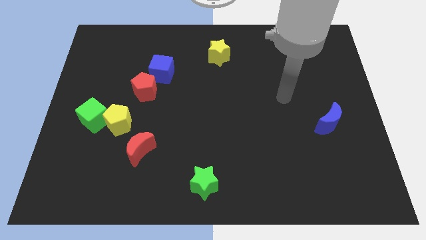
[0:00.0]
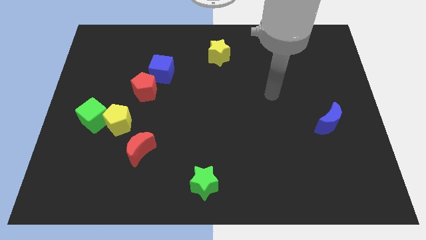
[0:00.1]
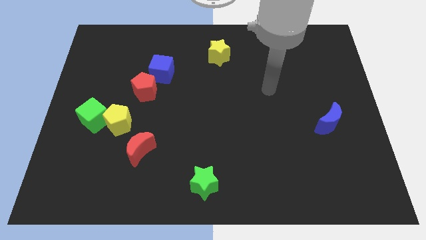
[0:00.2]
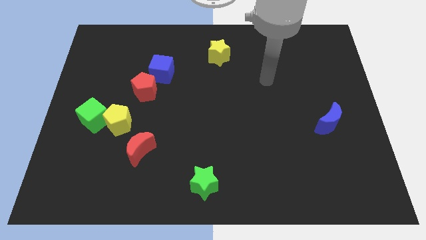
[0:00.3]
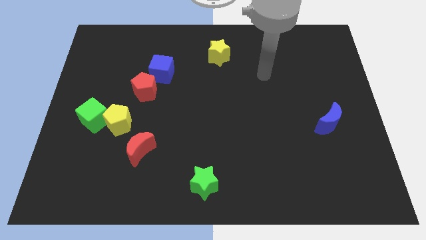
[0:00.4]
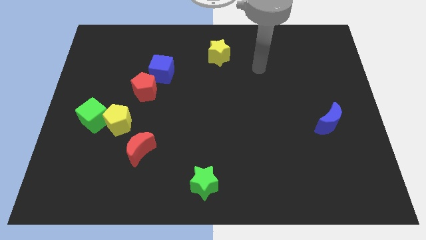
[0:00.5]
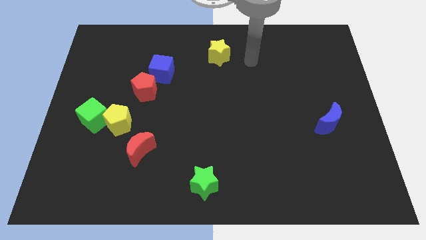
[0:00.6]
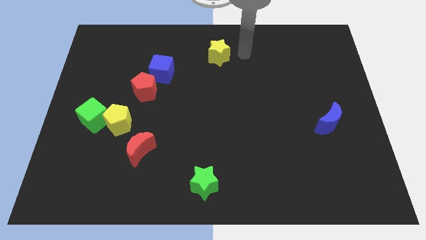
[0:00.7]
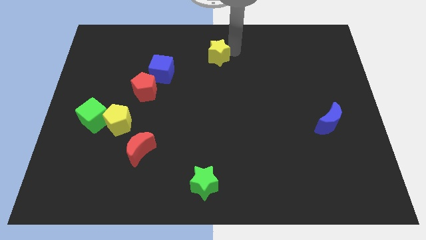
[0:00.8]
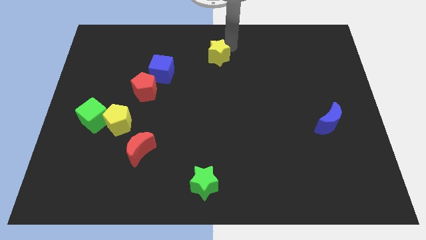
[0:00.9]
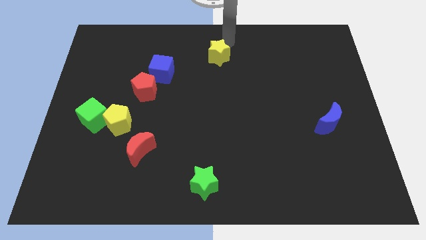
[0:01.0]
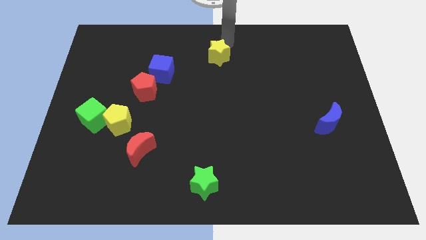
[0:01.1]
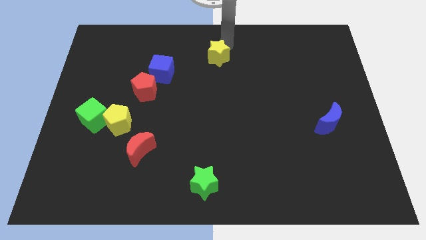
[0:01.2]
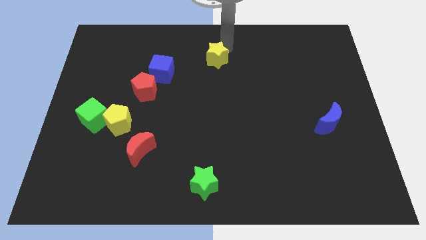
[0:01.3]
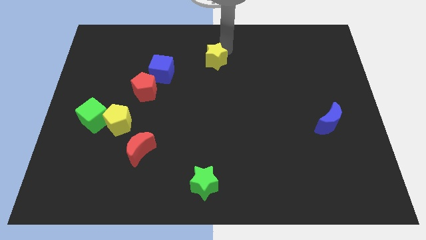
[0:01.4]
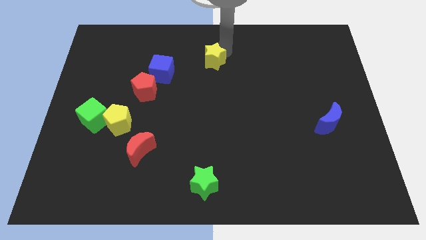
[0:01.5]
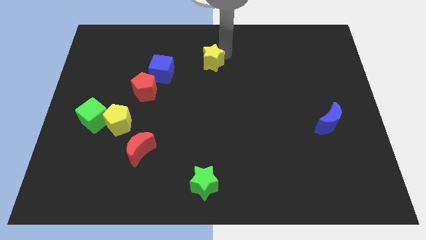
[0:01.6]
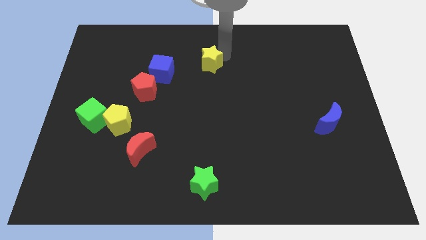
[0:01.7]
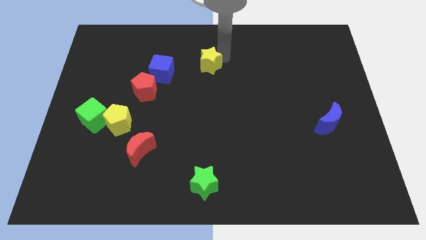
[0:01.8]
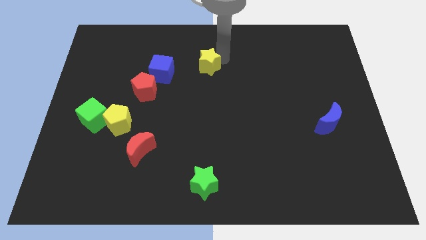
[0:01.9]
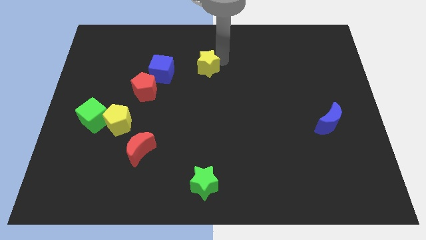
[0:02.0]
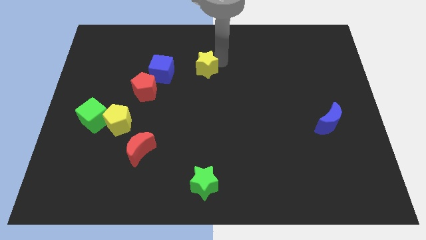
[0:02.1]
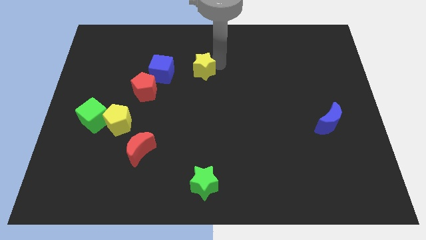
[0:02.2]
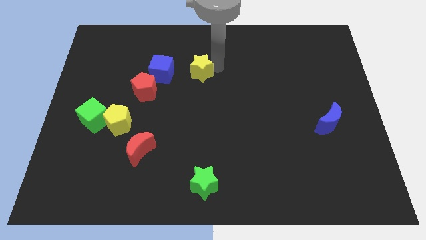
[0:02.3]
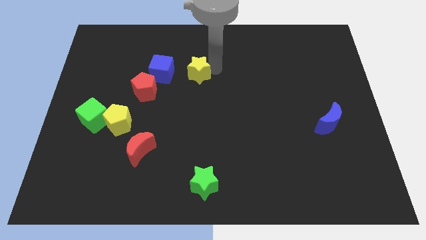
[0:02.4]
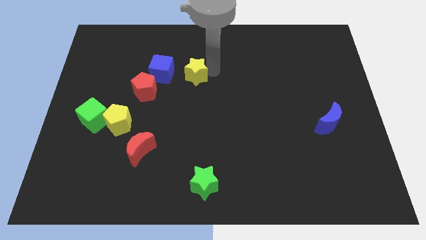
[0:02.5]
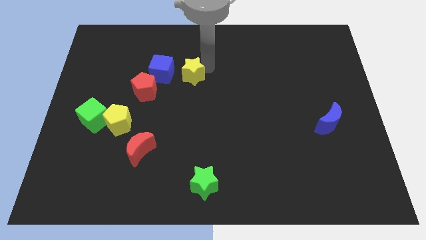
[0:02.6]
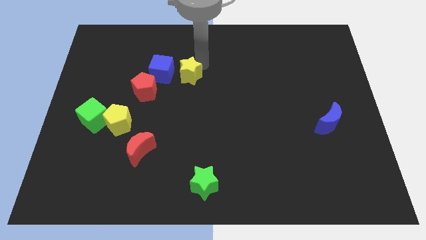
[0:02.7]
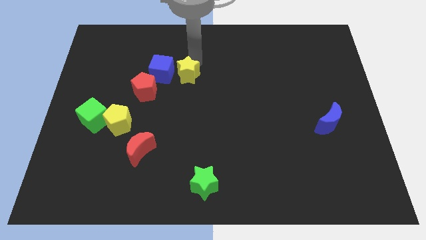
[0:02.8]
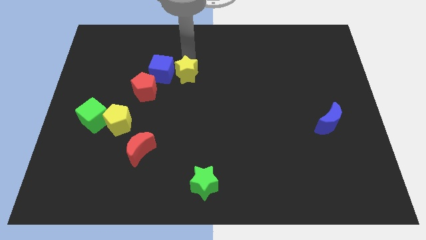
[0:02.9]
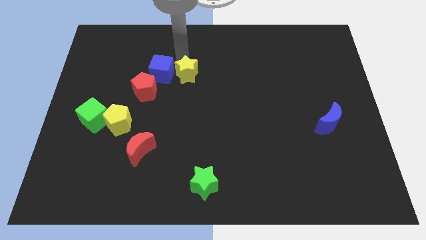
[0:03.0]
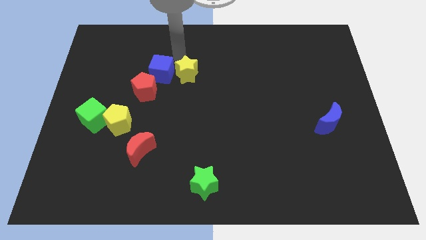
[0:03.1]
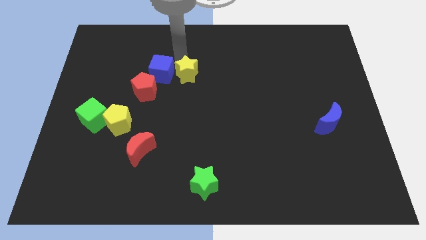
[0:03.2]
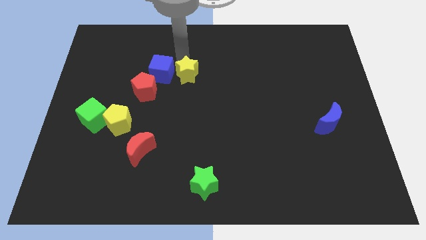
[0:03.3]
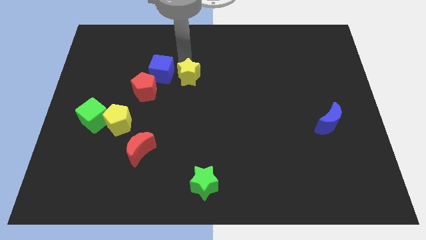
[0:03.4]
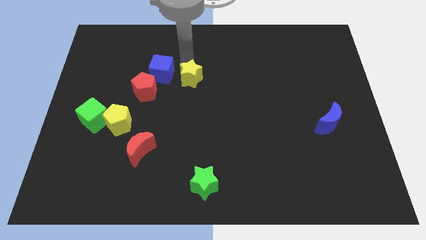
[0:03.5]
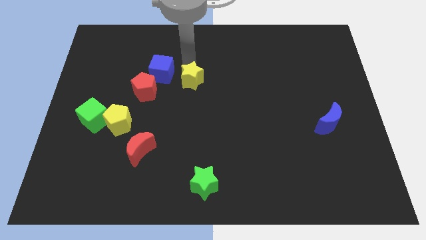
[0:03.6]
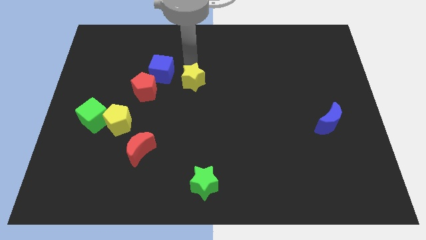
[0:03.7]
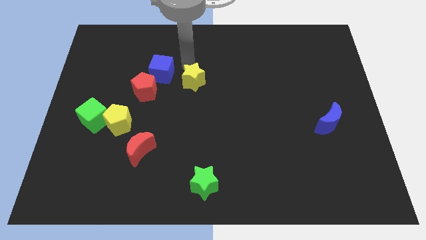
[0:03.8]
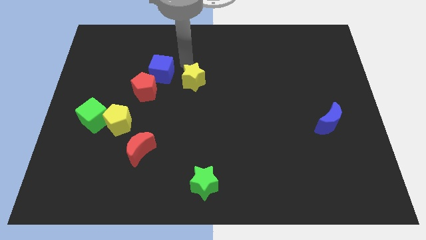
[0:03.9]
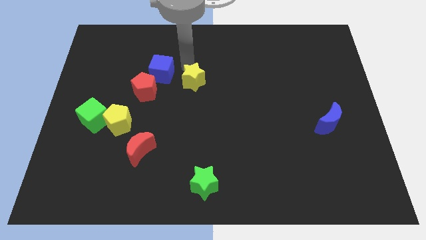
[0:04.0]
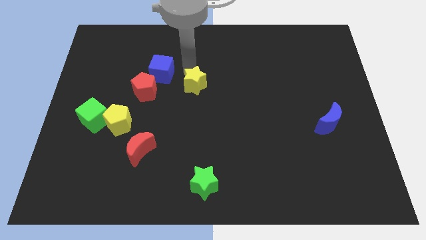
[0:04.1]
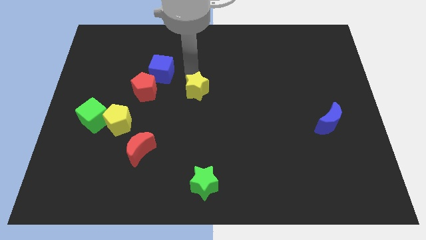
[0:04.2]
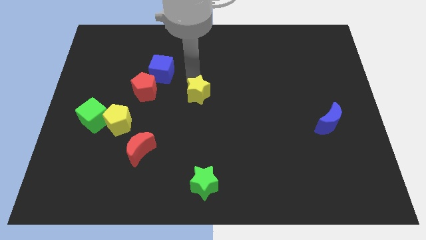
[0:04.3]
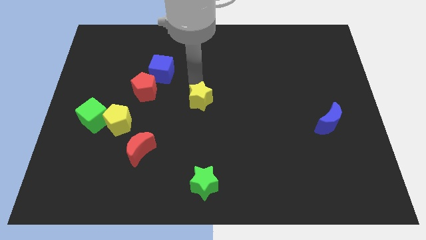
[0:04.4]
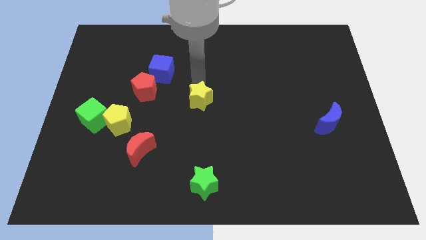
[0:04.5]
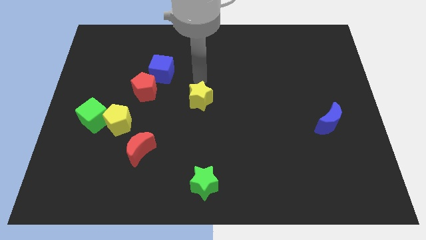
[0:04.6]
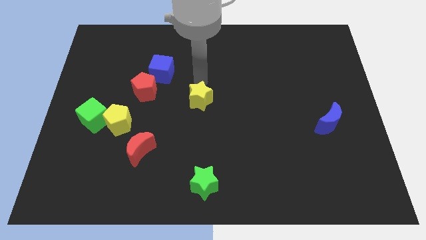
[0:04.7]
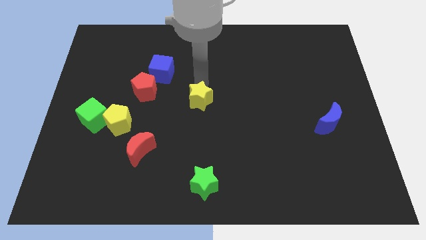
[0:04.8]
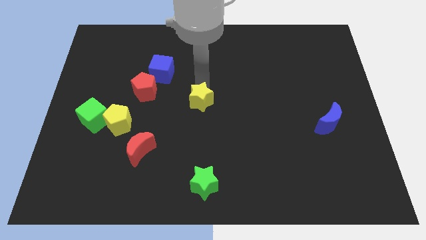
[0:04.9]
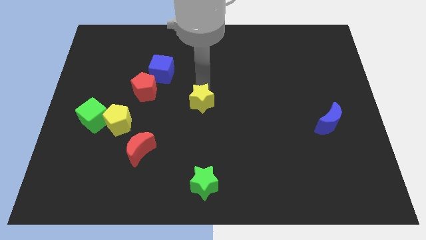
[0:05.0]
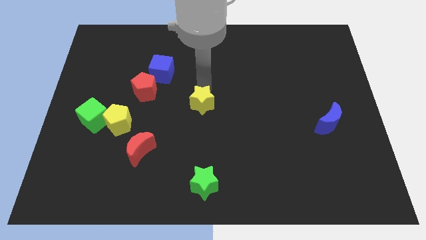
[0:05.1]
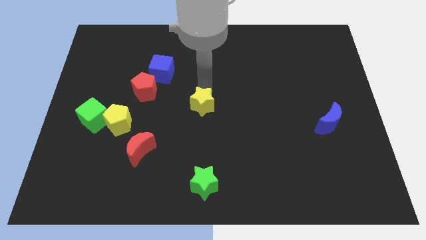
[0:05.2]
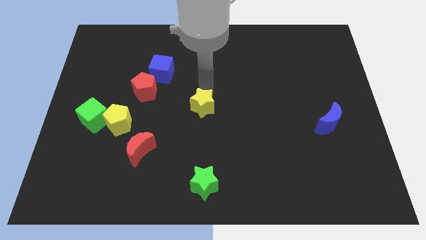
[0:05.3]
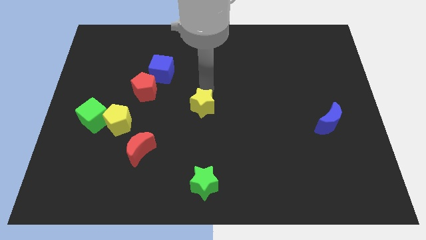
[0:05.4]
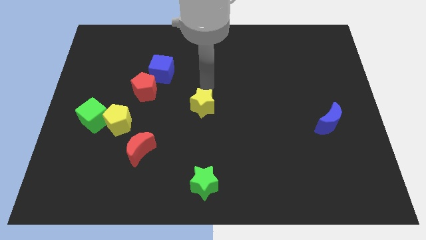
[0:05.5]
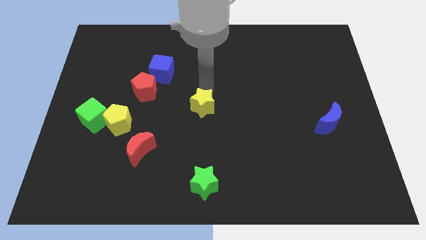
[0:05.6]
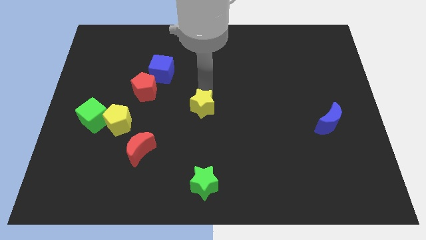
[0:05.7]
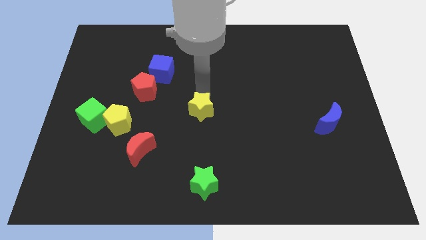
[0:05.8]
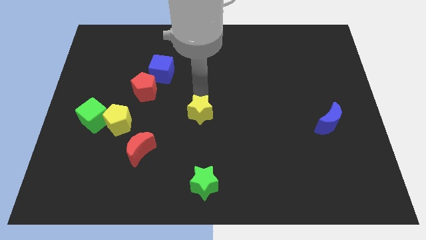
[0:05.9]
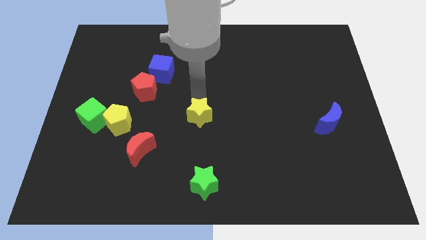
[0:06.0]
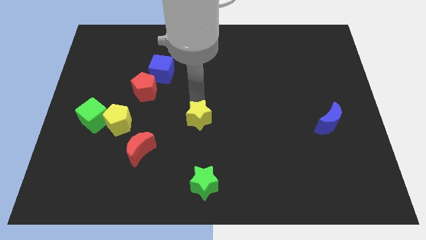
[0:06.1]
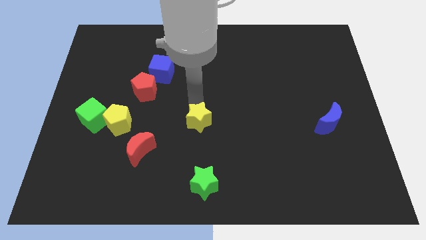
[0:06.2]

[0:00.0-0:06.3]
move the yellow star to the top of the green star
